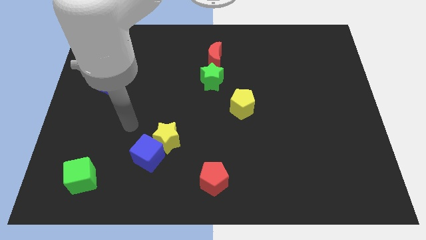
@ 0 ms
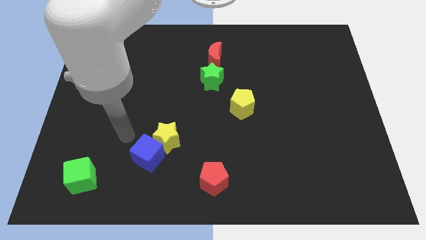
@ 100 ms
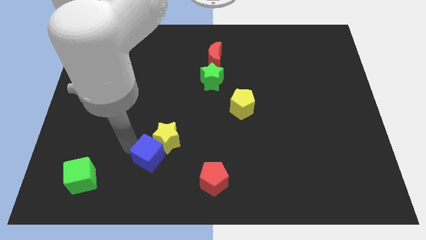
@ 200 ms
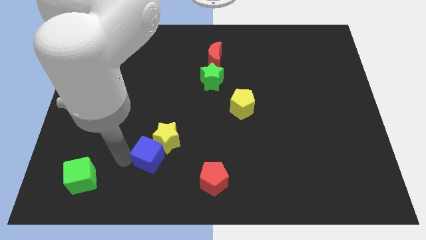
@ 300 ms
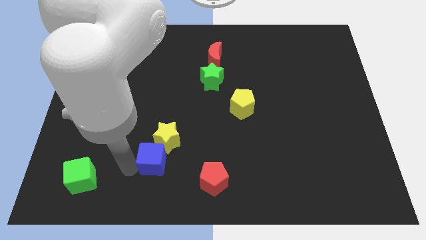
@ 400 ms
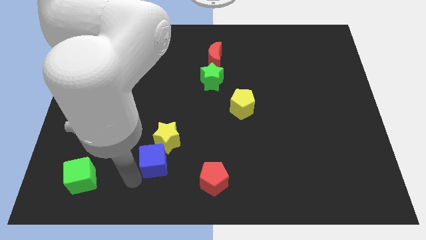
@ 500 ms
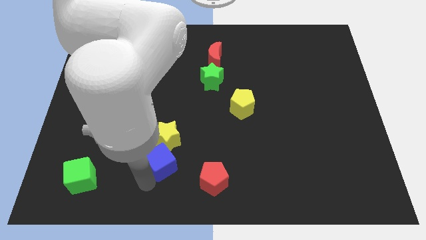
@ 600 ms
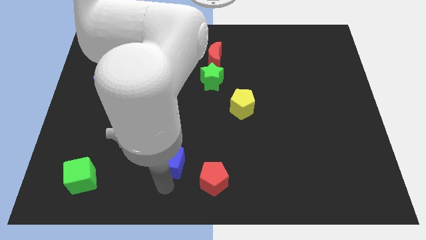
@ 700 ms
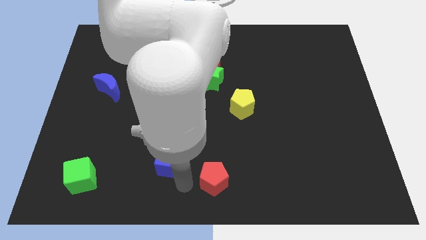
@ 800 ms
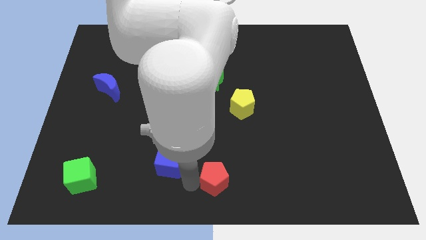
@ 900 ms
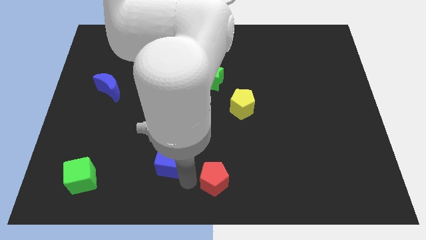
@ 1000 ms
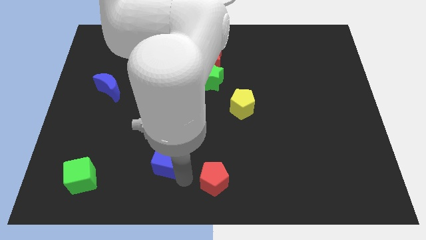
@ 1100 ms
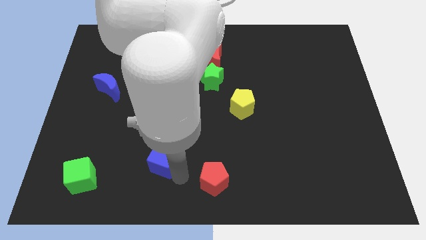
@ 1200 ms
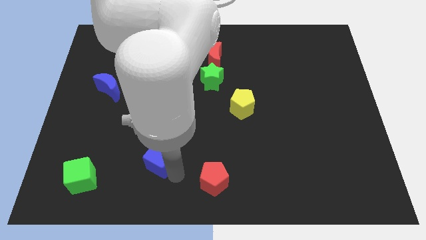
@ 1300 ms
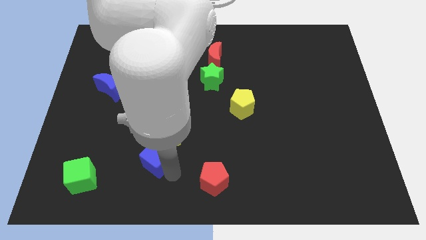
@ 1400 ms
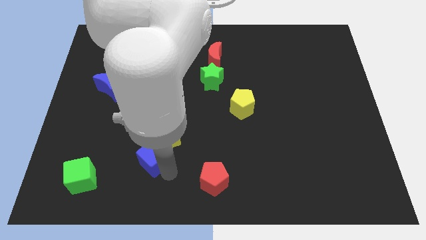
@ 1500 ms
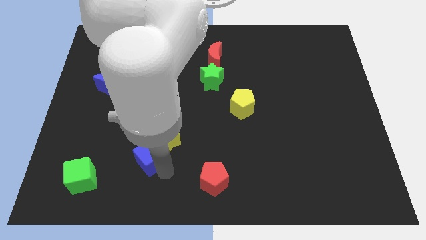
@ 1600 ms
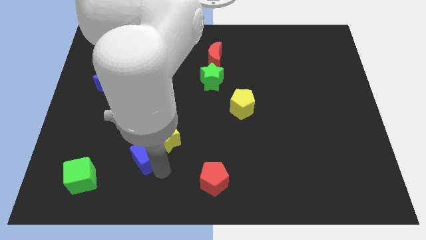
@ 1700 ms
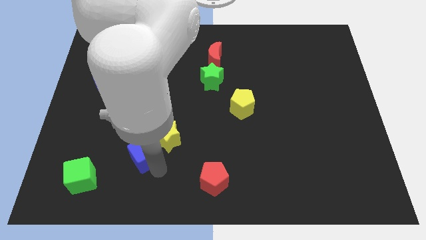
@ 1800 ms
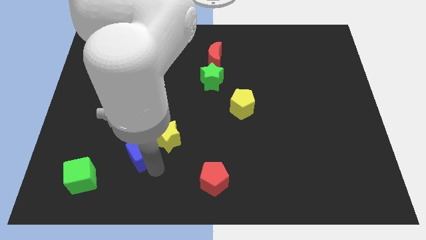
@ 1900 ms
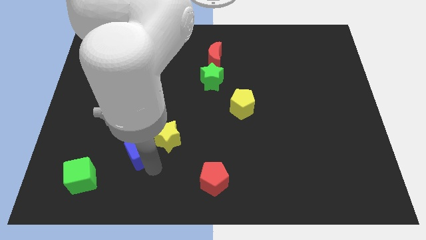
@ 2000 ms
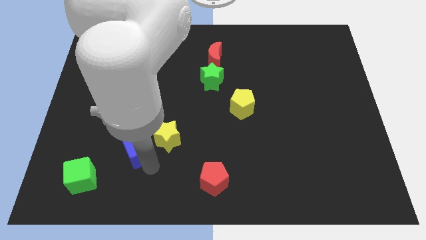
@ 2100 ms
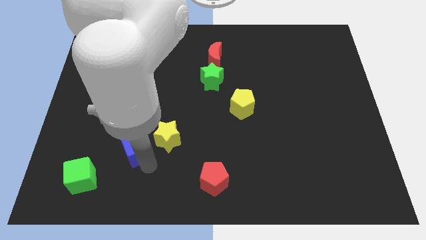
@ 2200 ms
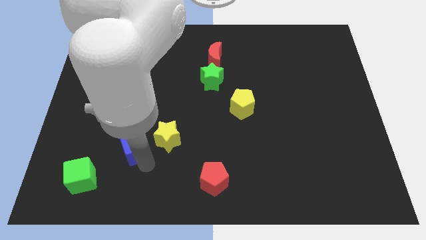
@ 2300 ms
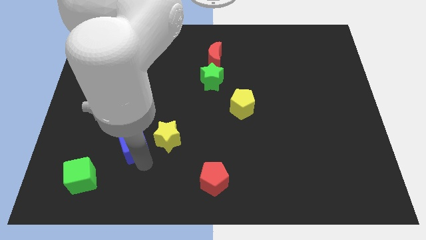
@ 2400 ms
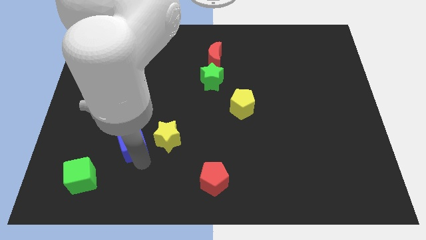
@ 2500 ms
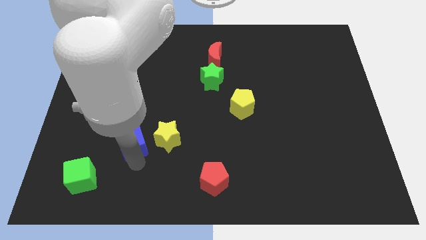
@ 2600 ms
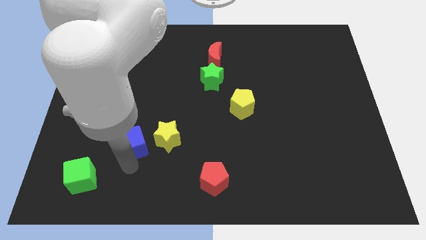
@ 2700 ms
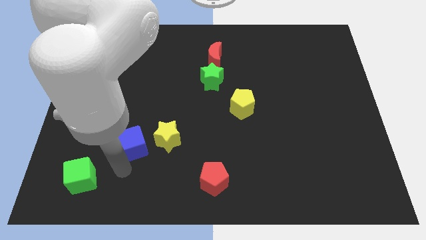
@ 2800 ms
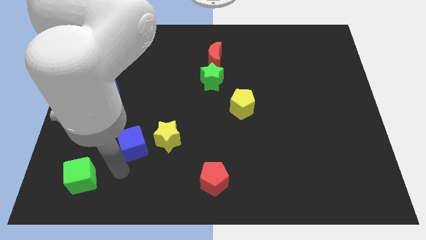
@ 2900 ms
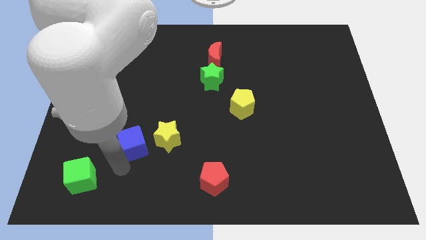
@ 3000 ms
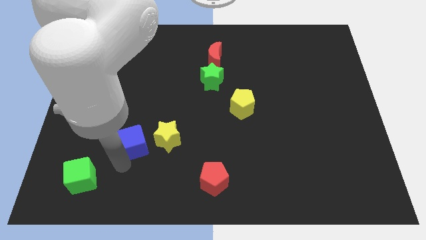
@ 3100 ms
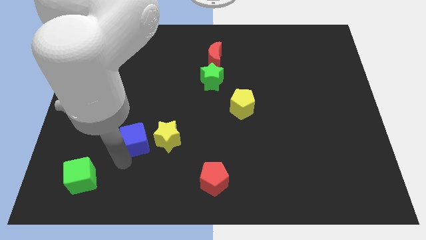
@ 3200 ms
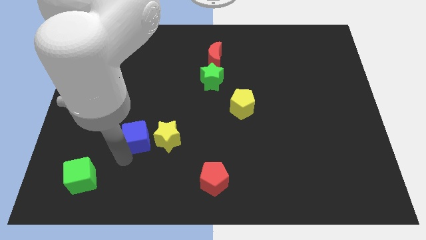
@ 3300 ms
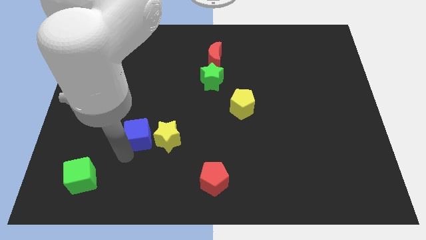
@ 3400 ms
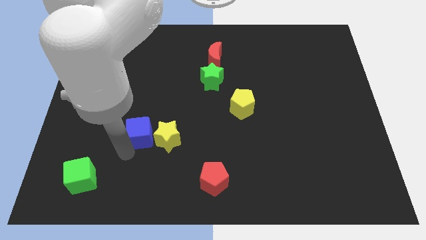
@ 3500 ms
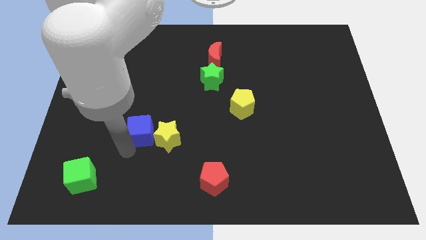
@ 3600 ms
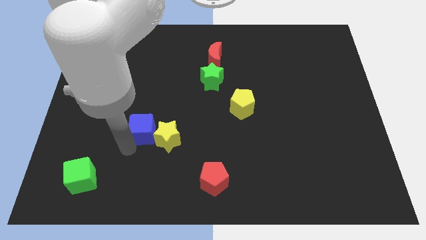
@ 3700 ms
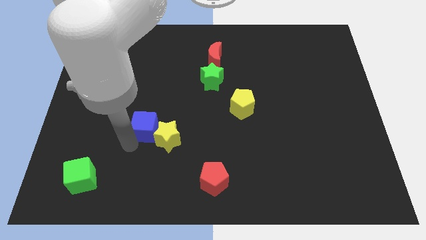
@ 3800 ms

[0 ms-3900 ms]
slightly slide the blue cube upwards

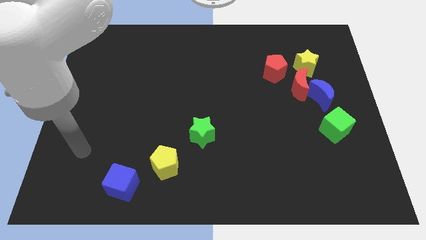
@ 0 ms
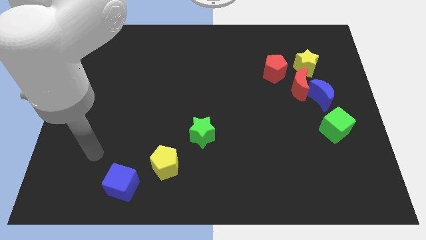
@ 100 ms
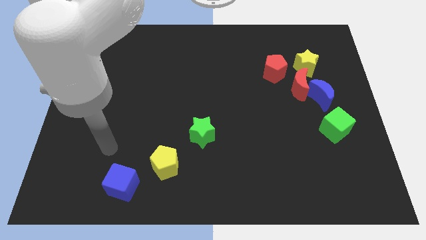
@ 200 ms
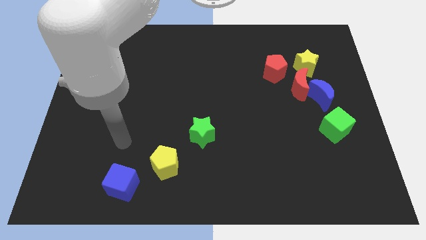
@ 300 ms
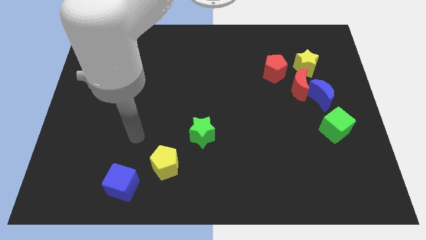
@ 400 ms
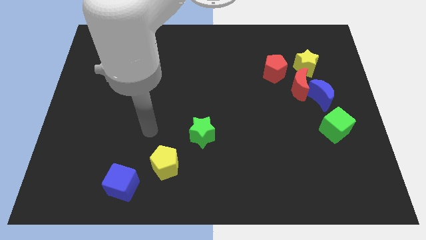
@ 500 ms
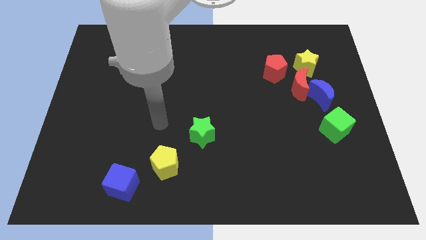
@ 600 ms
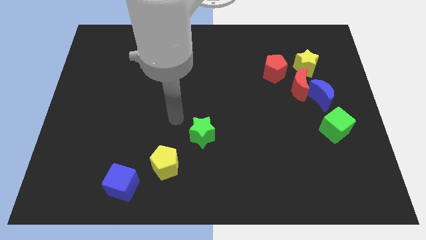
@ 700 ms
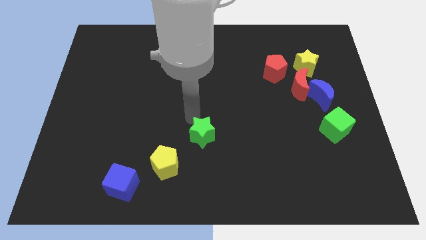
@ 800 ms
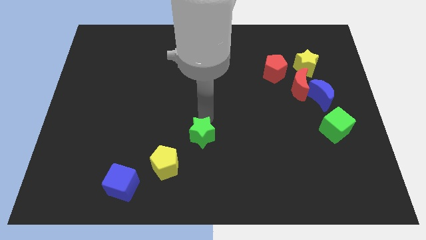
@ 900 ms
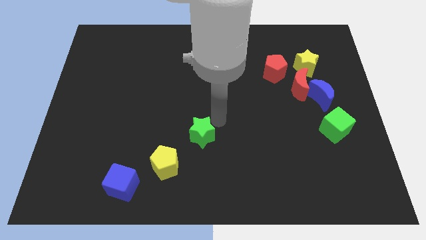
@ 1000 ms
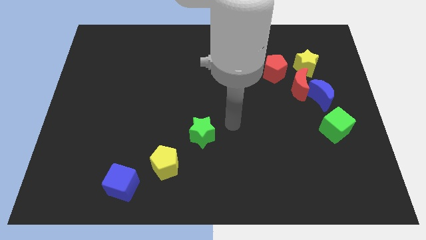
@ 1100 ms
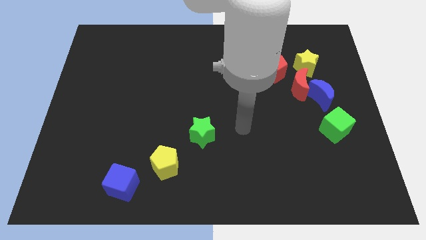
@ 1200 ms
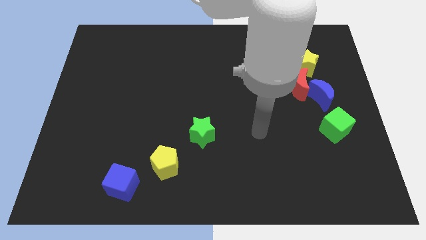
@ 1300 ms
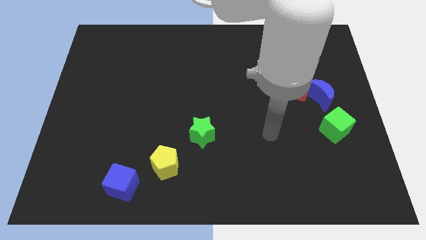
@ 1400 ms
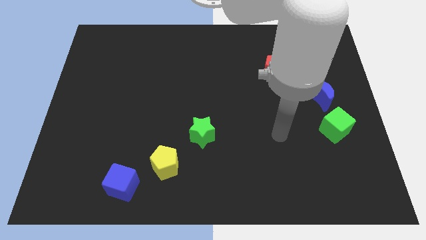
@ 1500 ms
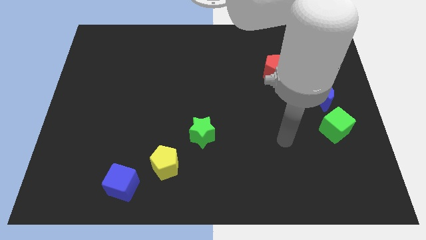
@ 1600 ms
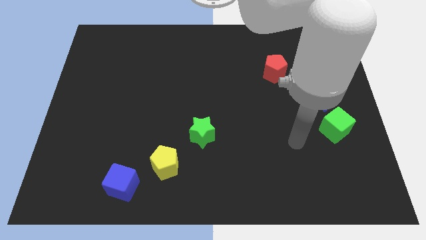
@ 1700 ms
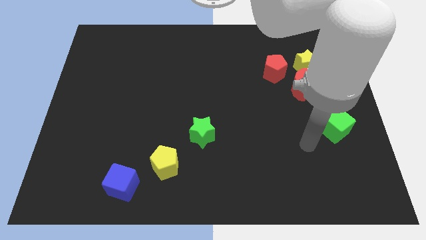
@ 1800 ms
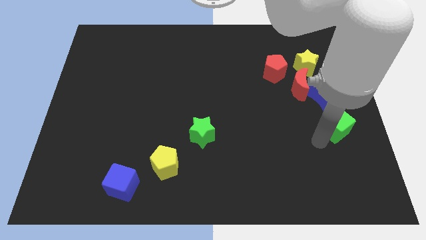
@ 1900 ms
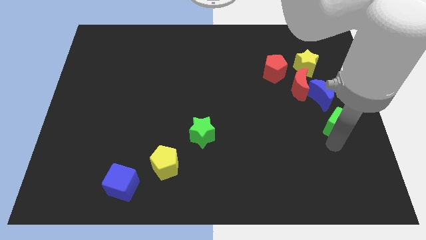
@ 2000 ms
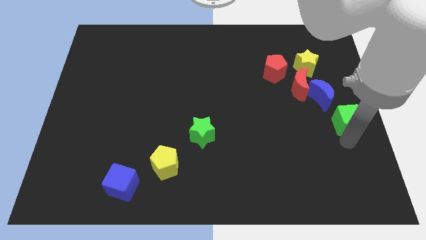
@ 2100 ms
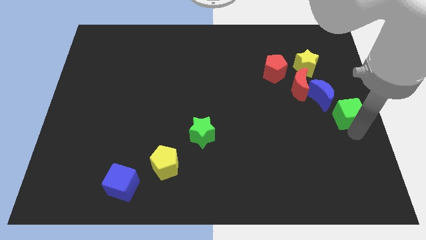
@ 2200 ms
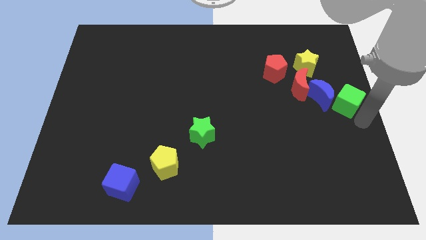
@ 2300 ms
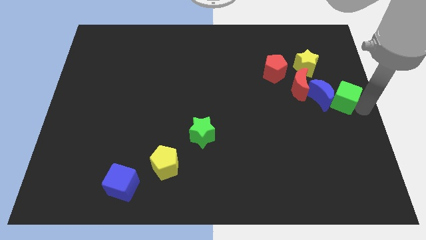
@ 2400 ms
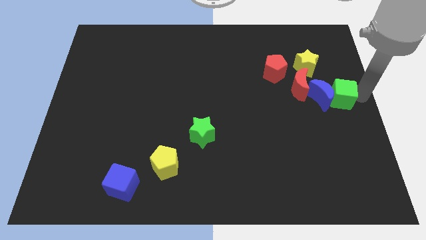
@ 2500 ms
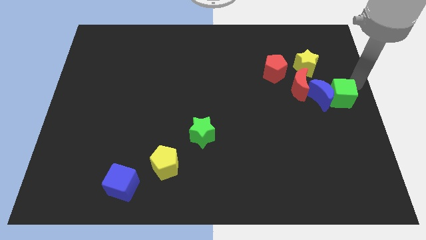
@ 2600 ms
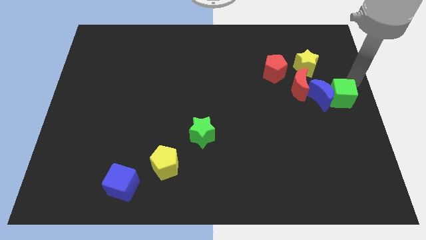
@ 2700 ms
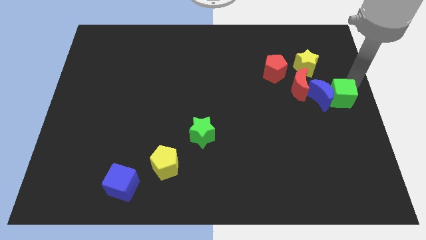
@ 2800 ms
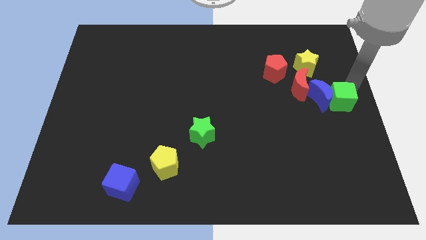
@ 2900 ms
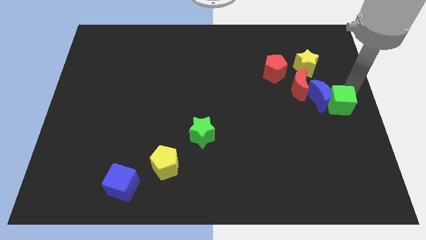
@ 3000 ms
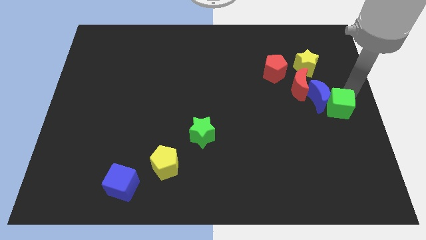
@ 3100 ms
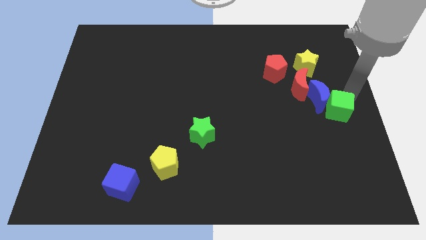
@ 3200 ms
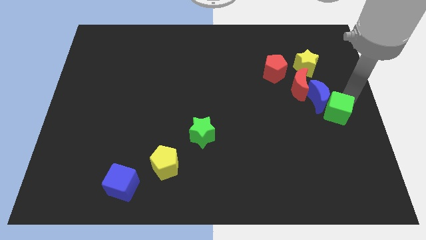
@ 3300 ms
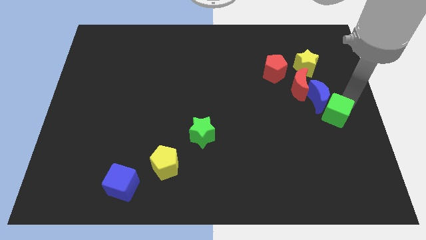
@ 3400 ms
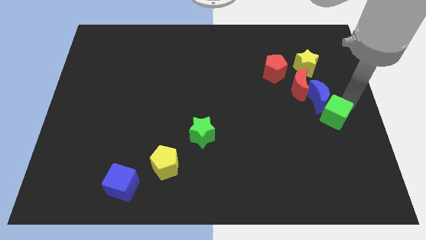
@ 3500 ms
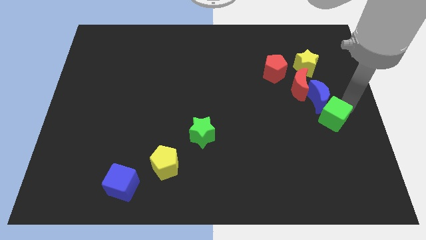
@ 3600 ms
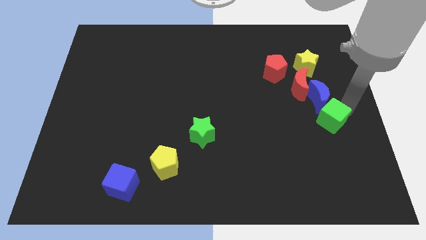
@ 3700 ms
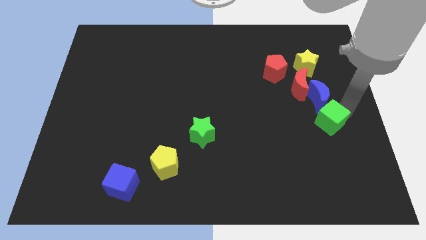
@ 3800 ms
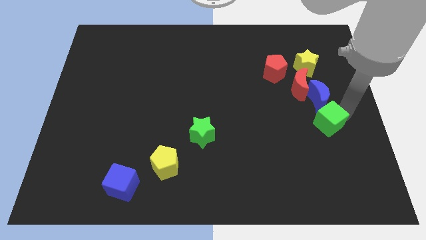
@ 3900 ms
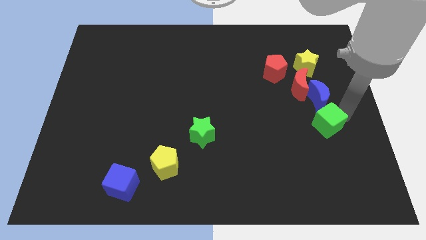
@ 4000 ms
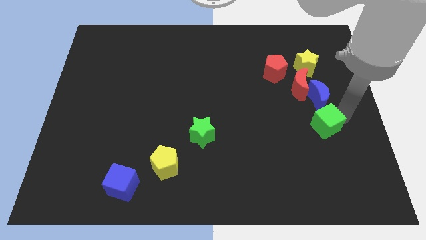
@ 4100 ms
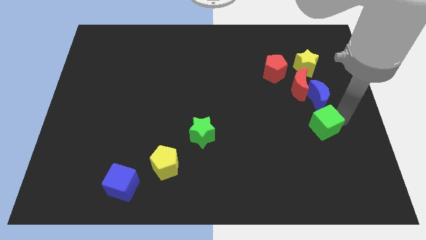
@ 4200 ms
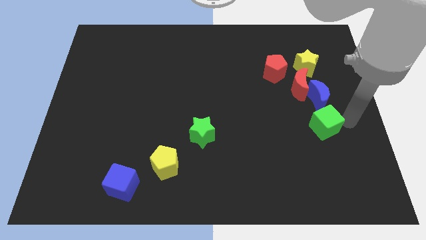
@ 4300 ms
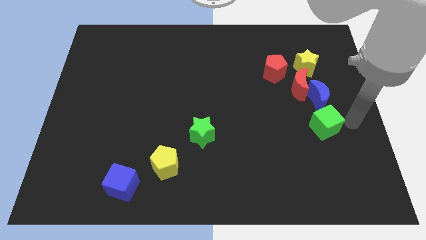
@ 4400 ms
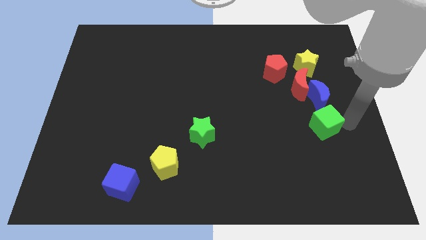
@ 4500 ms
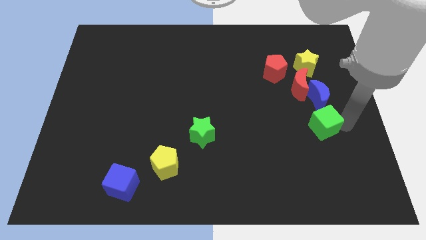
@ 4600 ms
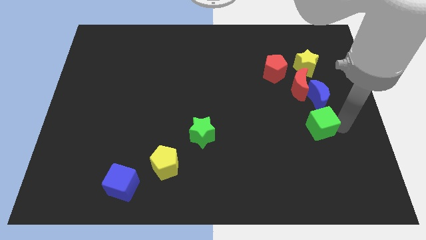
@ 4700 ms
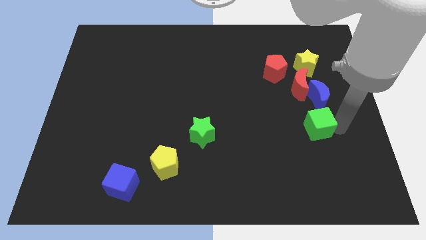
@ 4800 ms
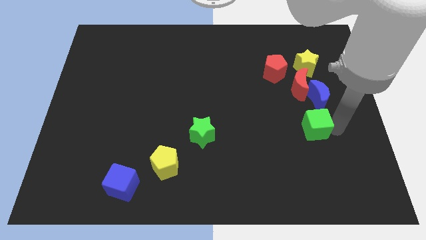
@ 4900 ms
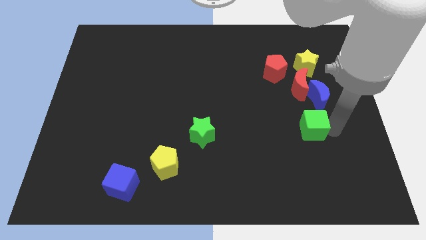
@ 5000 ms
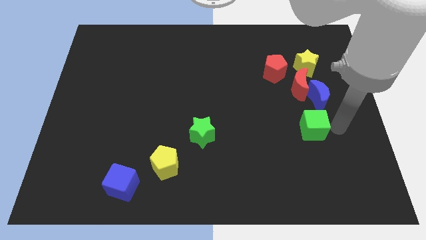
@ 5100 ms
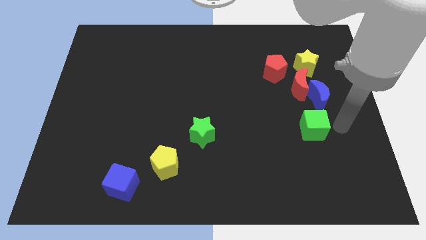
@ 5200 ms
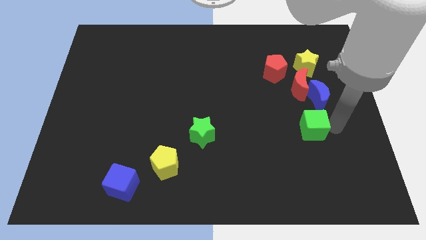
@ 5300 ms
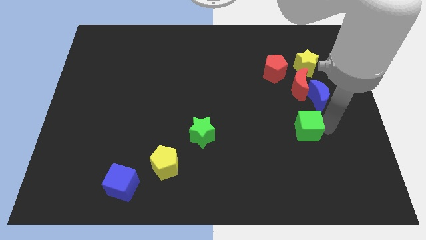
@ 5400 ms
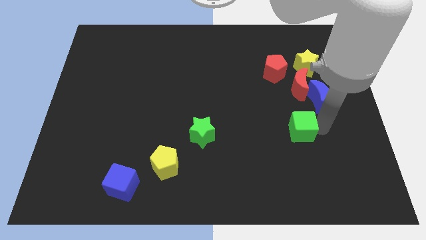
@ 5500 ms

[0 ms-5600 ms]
slide the green cube a bit left
